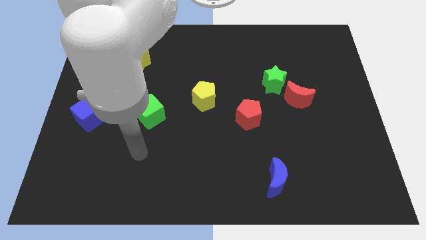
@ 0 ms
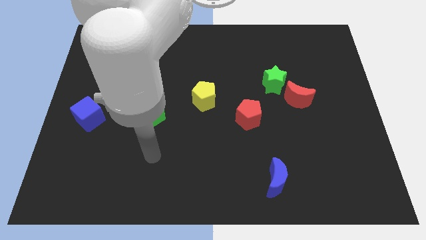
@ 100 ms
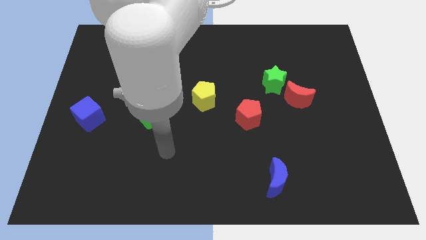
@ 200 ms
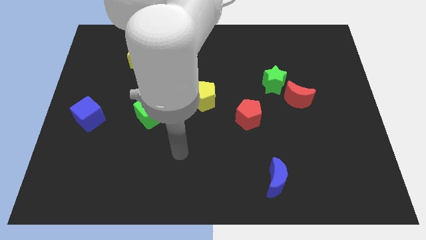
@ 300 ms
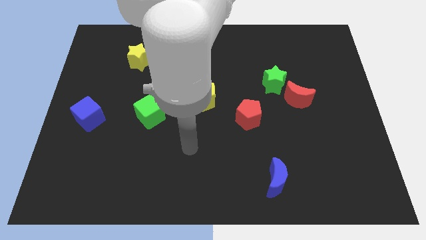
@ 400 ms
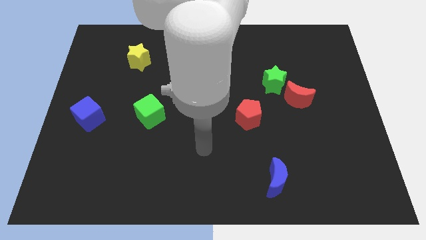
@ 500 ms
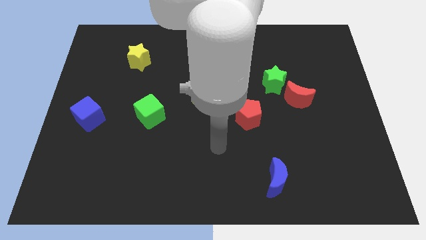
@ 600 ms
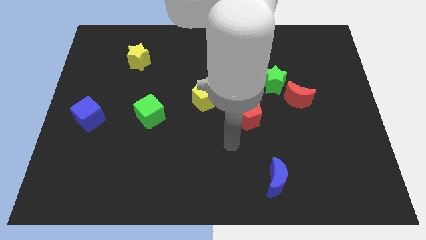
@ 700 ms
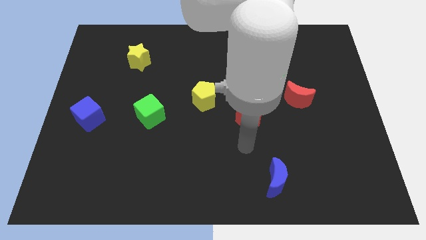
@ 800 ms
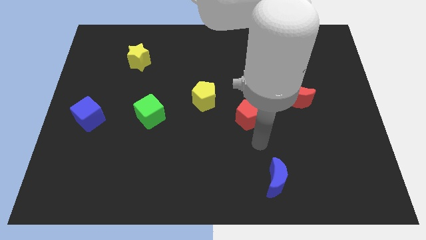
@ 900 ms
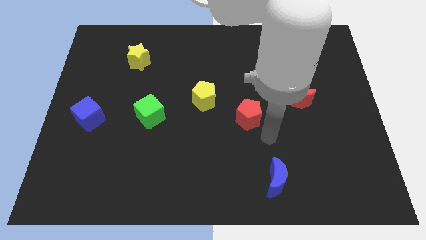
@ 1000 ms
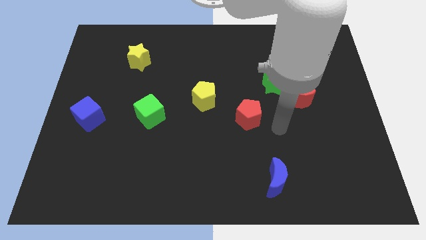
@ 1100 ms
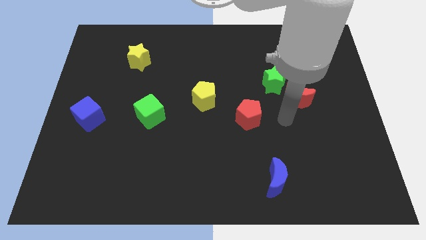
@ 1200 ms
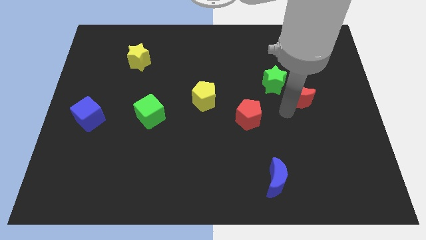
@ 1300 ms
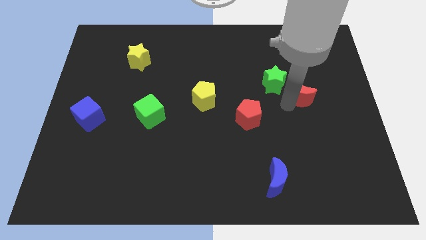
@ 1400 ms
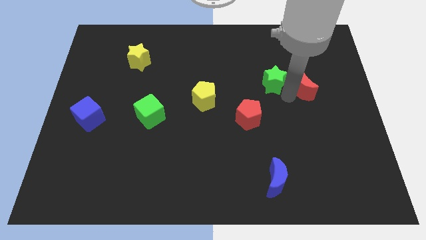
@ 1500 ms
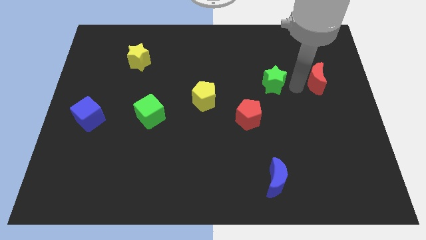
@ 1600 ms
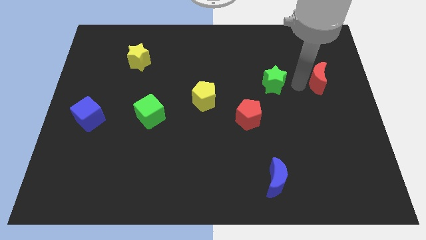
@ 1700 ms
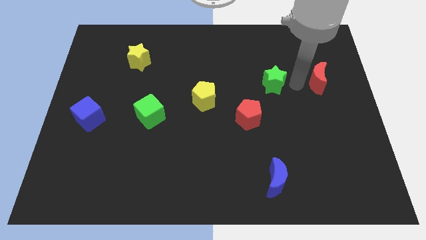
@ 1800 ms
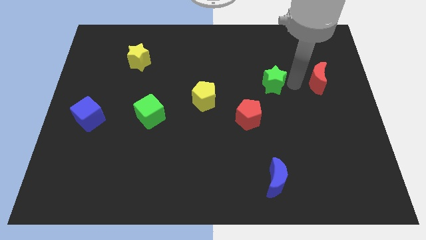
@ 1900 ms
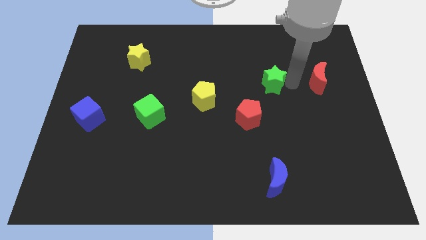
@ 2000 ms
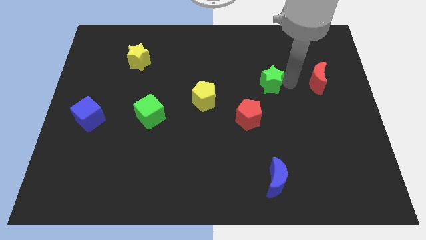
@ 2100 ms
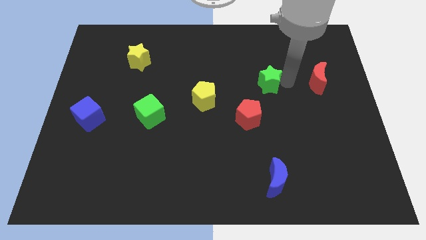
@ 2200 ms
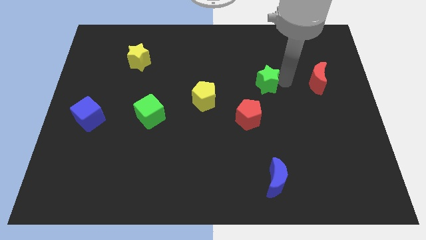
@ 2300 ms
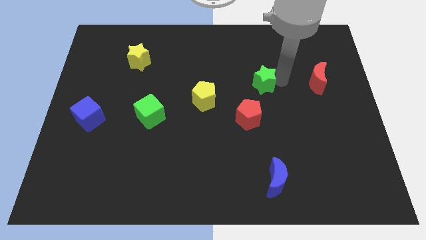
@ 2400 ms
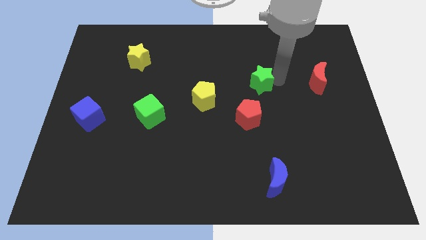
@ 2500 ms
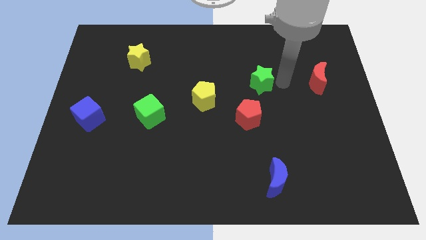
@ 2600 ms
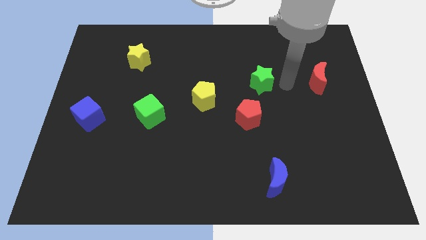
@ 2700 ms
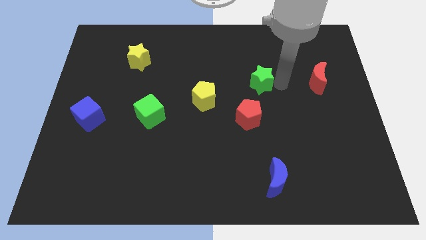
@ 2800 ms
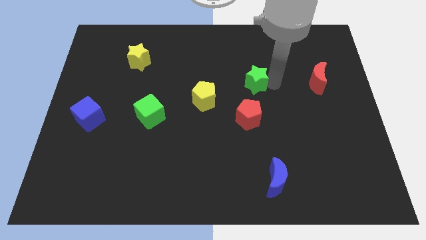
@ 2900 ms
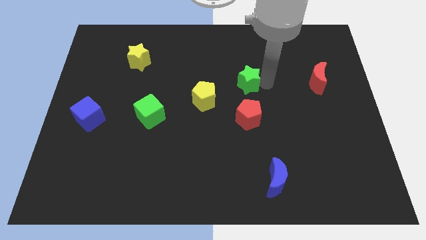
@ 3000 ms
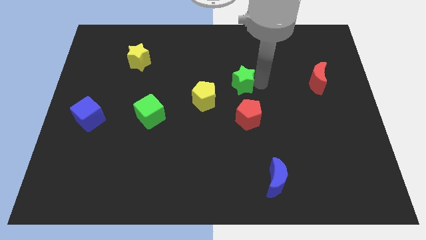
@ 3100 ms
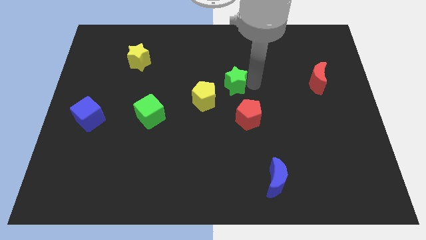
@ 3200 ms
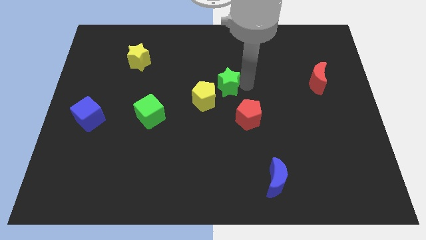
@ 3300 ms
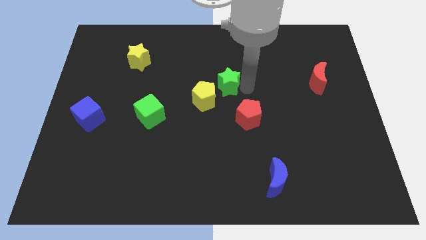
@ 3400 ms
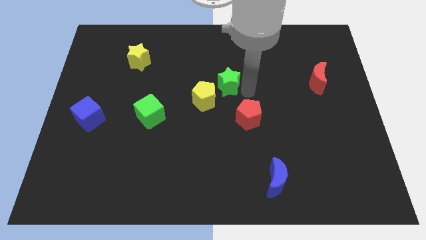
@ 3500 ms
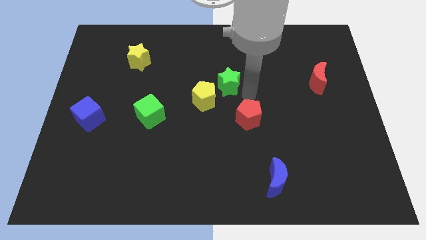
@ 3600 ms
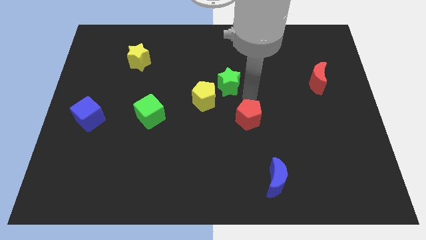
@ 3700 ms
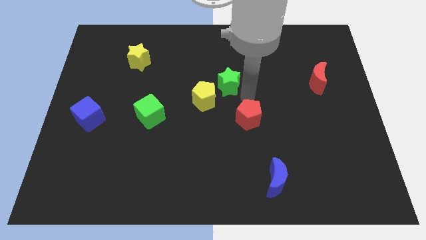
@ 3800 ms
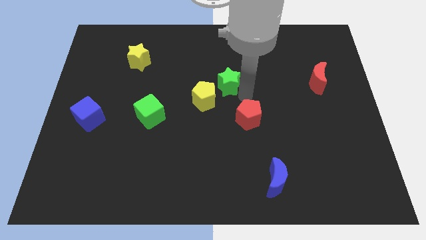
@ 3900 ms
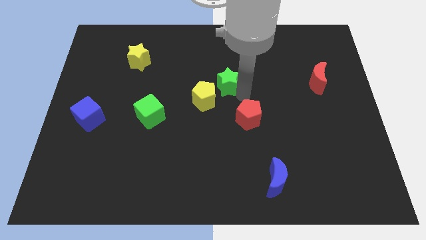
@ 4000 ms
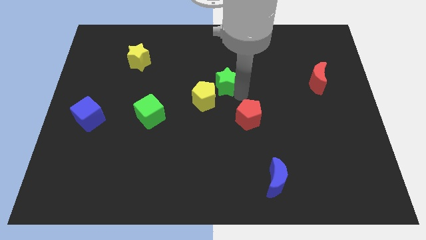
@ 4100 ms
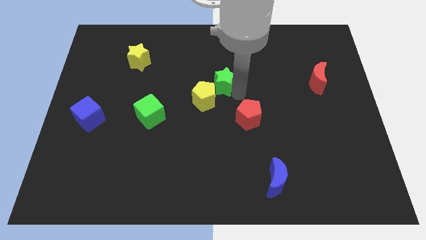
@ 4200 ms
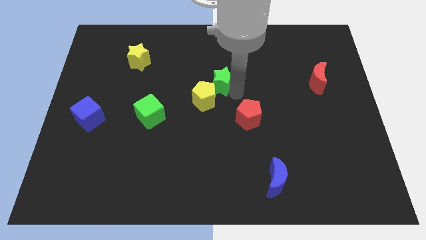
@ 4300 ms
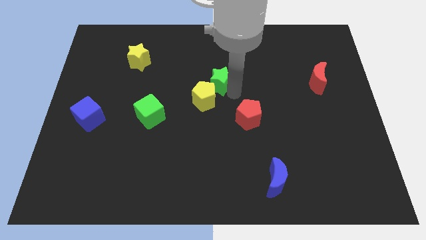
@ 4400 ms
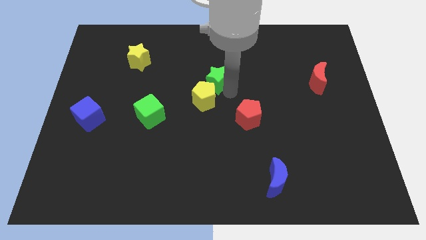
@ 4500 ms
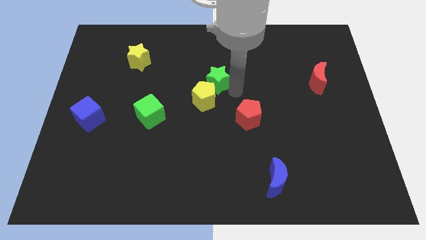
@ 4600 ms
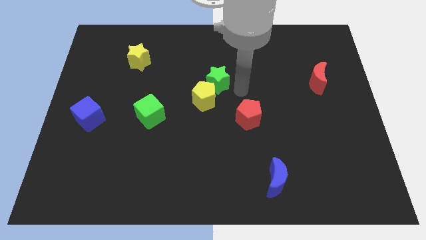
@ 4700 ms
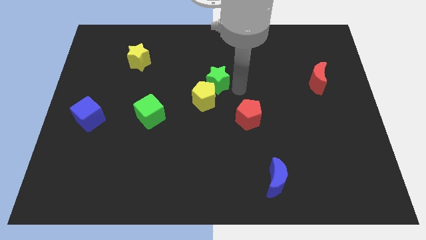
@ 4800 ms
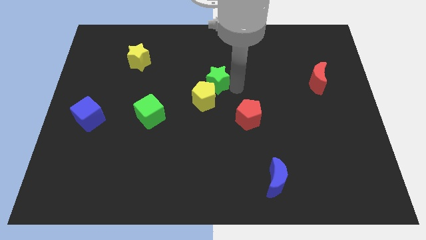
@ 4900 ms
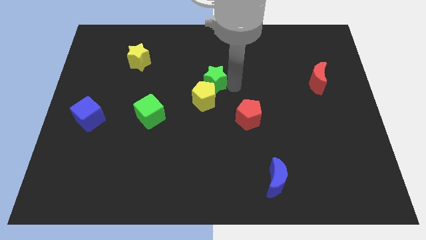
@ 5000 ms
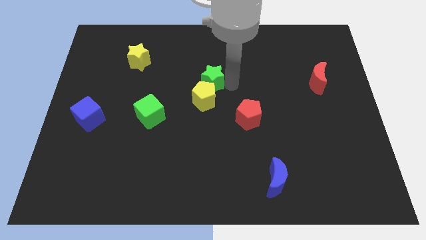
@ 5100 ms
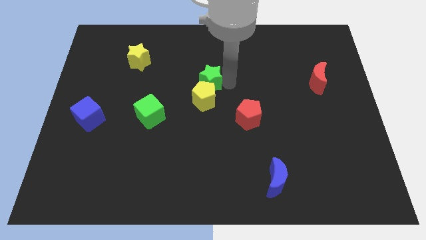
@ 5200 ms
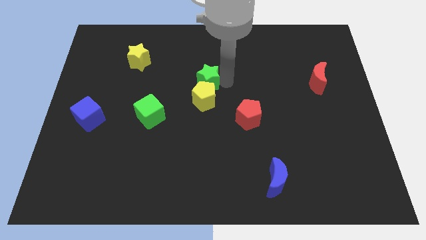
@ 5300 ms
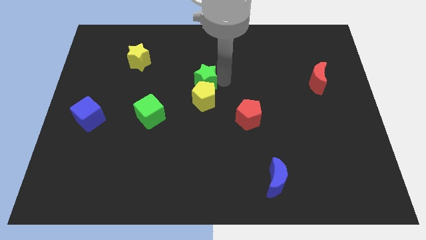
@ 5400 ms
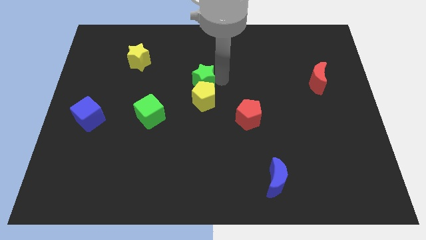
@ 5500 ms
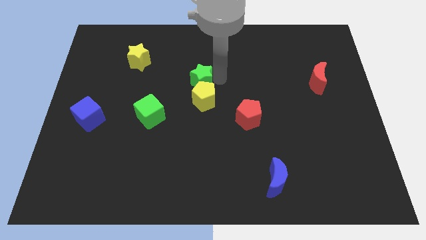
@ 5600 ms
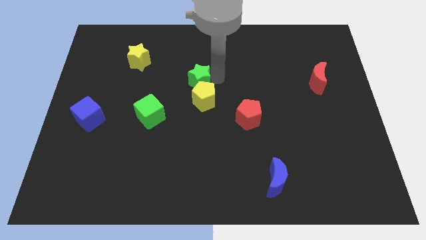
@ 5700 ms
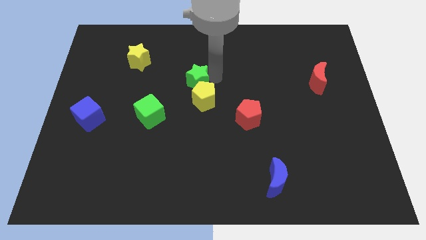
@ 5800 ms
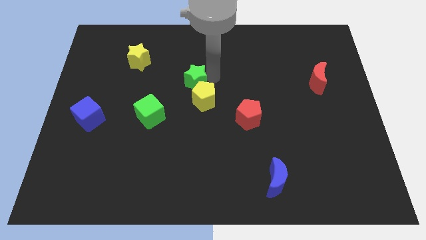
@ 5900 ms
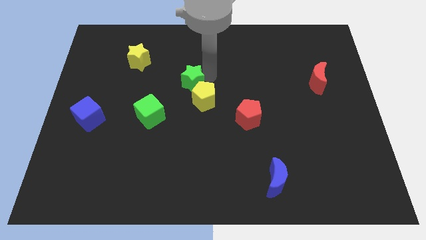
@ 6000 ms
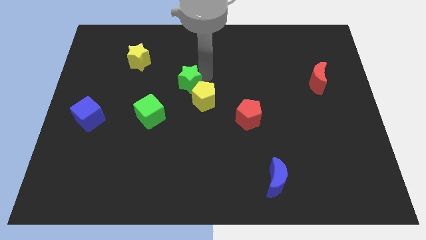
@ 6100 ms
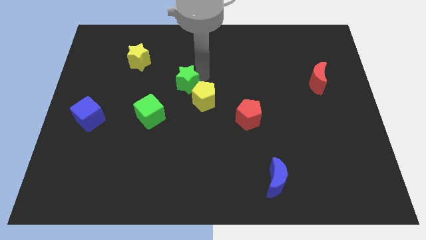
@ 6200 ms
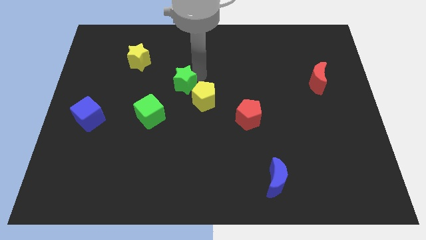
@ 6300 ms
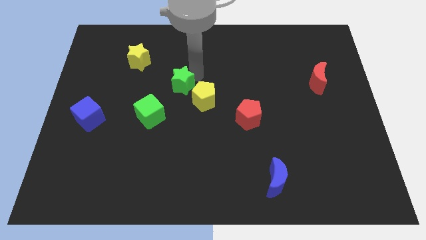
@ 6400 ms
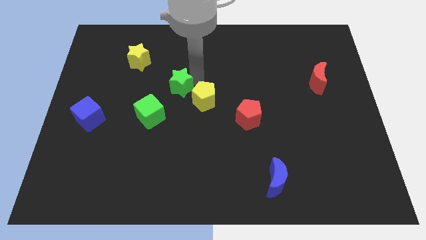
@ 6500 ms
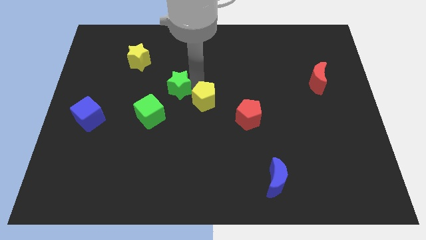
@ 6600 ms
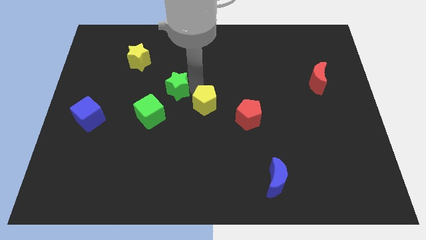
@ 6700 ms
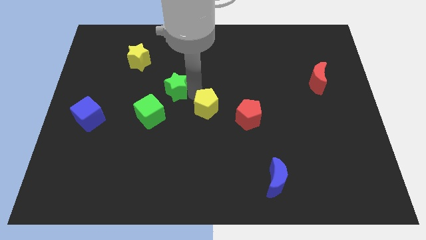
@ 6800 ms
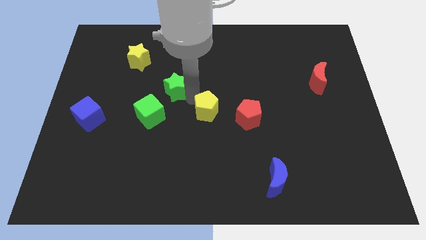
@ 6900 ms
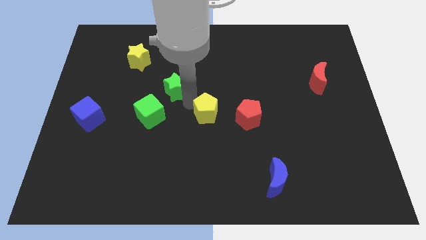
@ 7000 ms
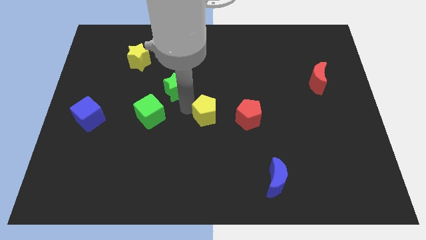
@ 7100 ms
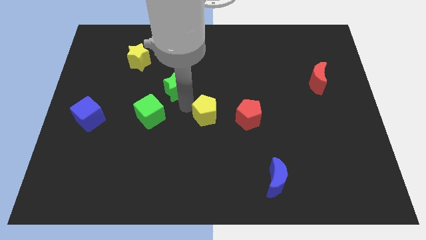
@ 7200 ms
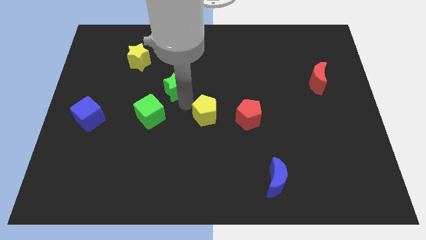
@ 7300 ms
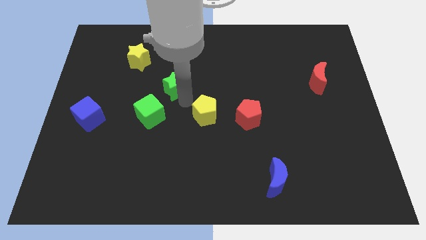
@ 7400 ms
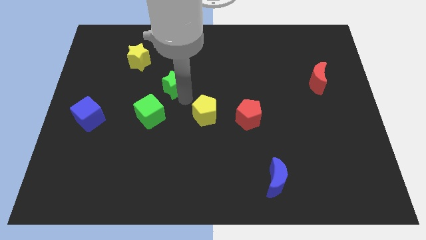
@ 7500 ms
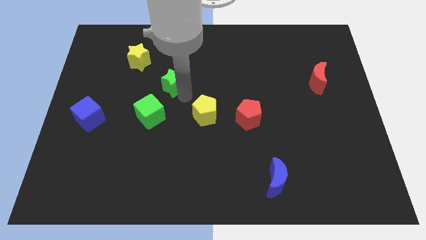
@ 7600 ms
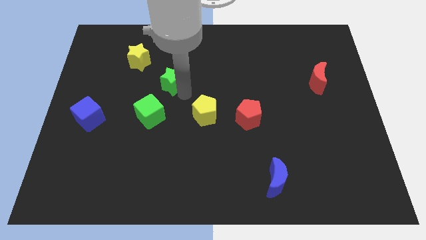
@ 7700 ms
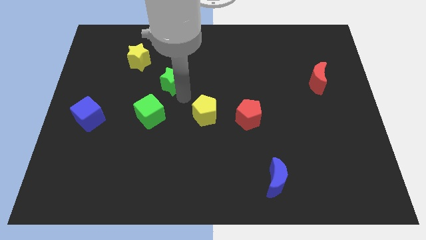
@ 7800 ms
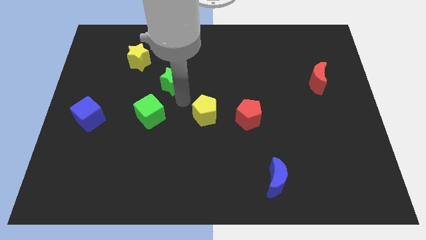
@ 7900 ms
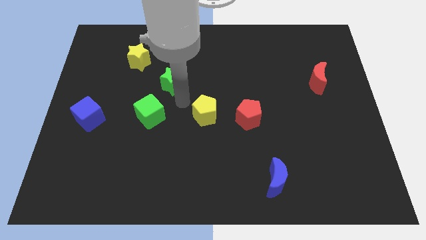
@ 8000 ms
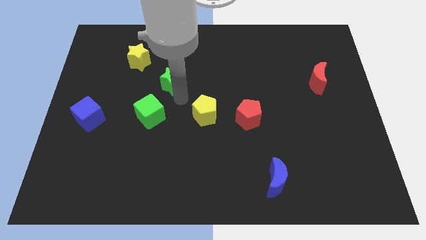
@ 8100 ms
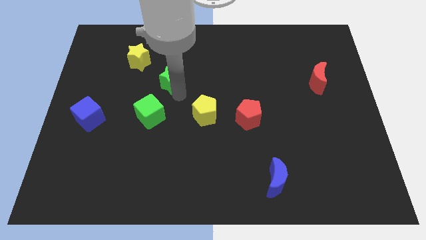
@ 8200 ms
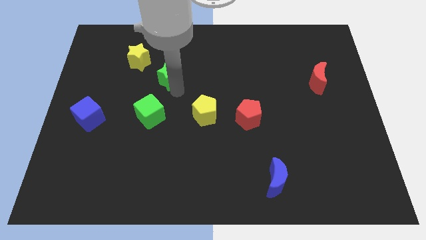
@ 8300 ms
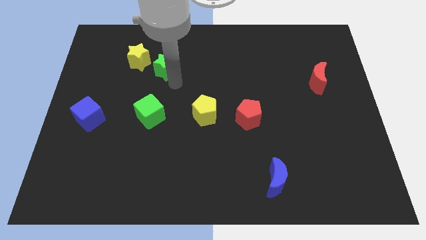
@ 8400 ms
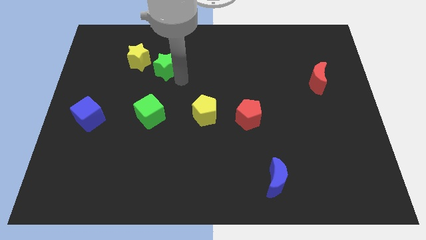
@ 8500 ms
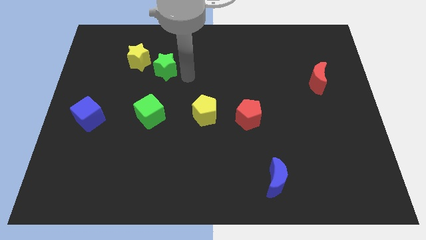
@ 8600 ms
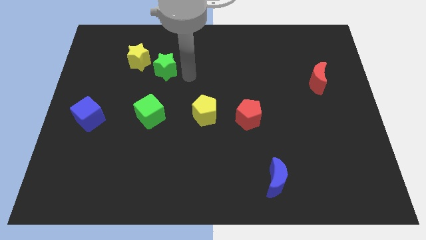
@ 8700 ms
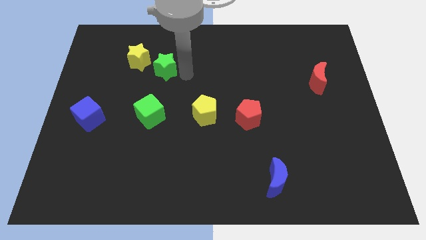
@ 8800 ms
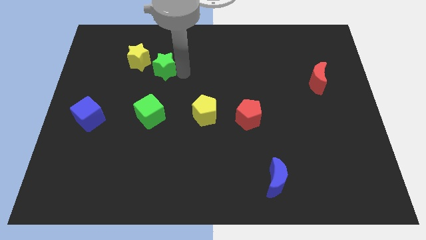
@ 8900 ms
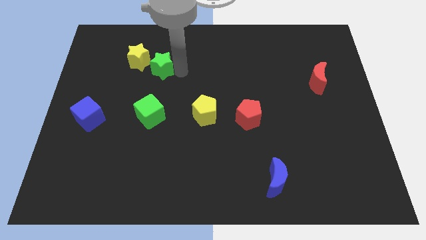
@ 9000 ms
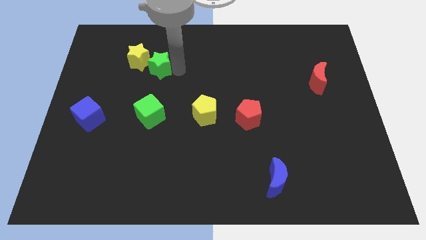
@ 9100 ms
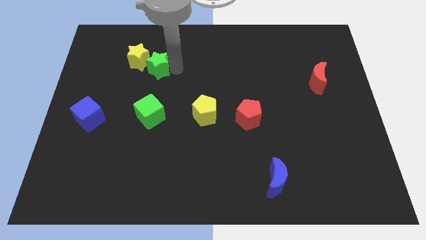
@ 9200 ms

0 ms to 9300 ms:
slide the green star close to the yellow star
